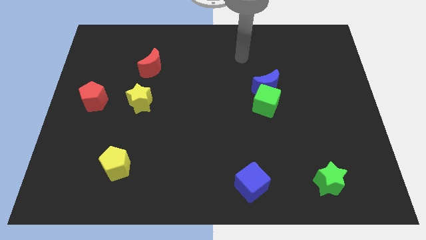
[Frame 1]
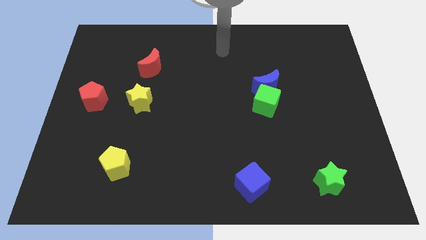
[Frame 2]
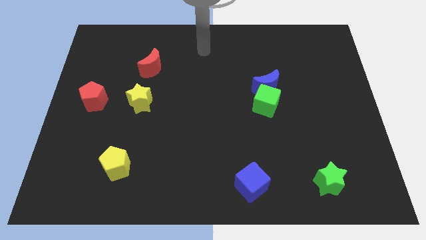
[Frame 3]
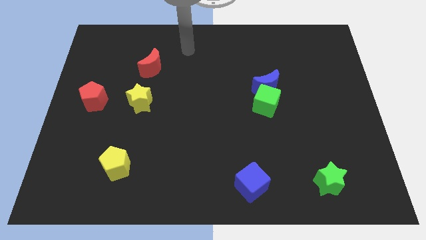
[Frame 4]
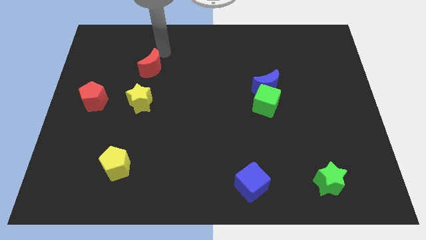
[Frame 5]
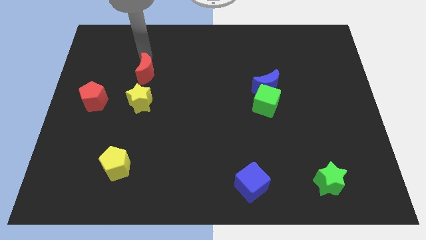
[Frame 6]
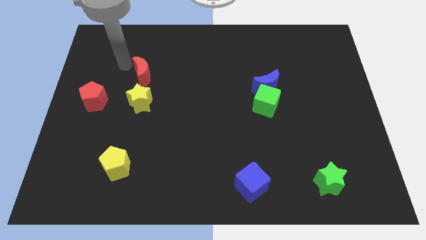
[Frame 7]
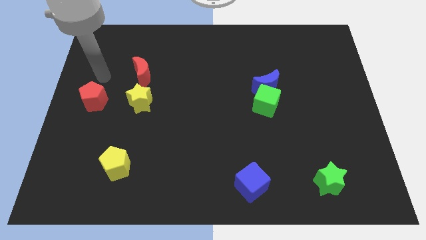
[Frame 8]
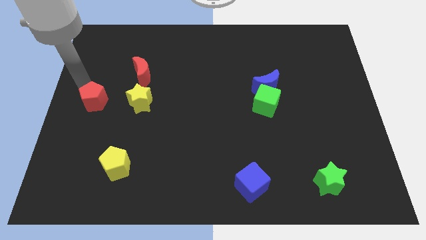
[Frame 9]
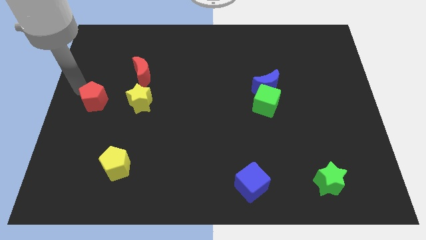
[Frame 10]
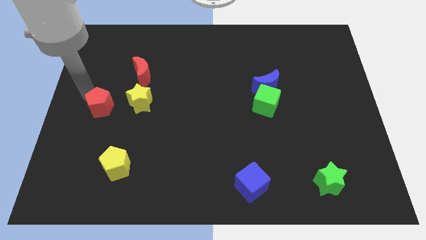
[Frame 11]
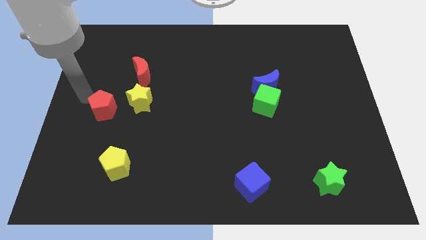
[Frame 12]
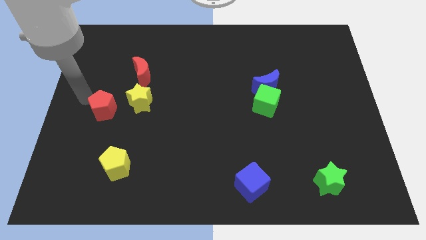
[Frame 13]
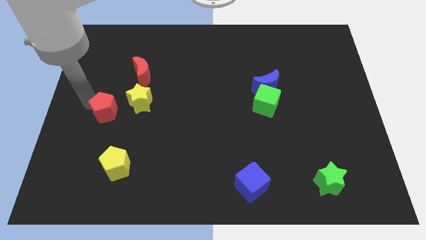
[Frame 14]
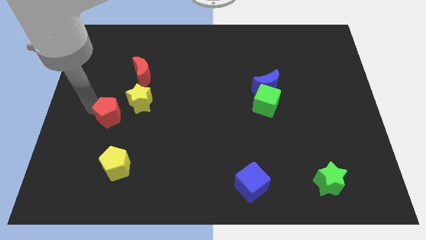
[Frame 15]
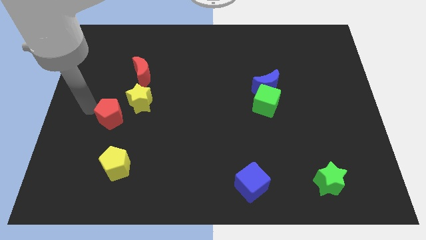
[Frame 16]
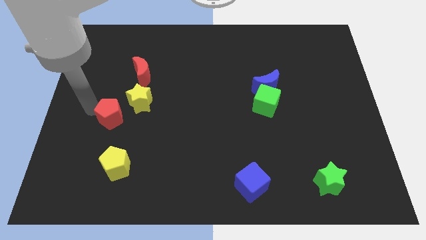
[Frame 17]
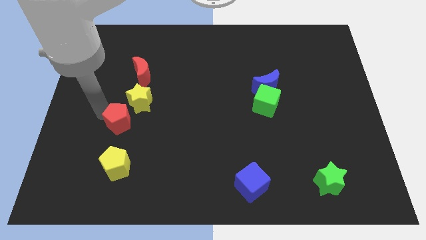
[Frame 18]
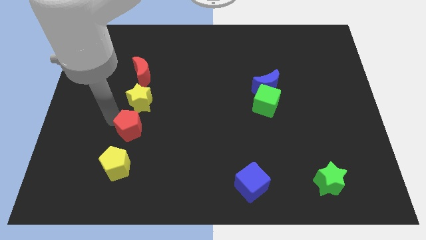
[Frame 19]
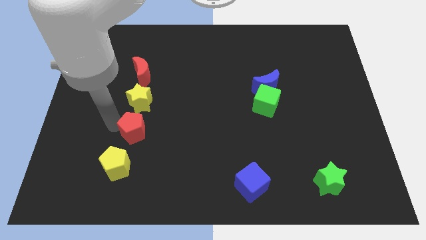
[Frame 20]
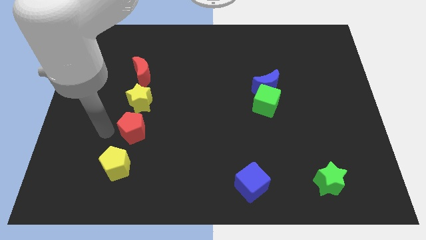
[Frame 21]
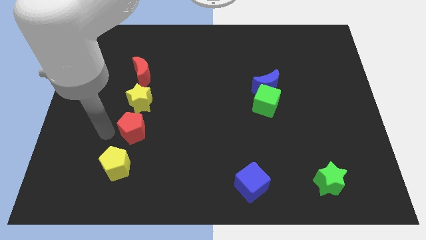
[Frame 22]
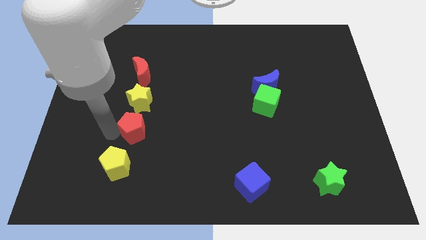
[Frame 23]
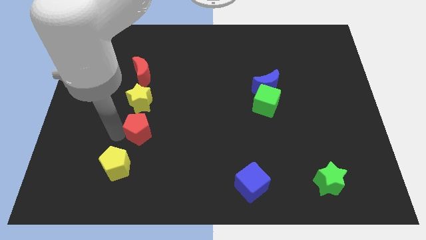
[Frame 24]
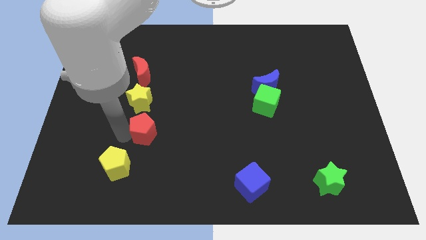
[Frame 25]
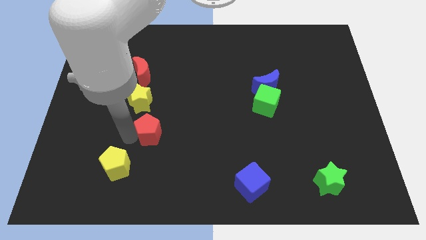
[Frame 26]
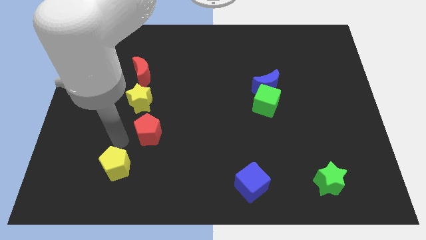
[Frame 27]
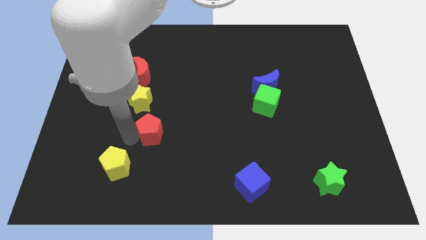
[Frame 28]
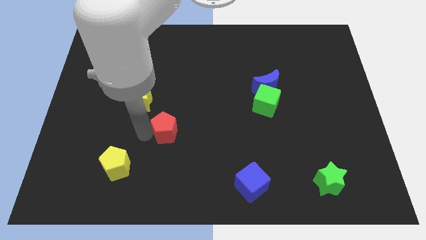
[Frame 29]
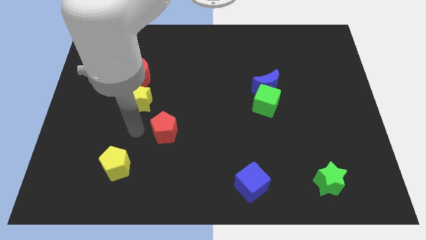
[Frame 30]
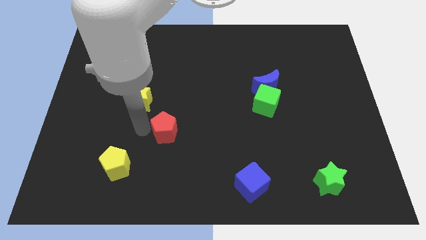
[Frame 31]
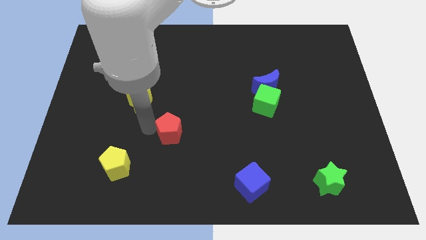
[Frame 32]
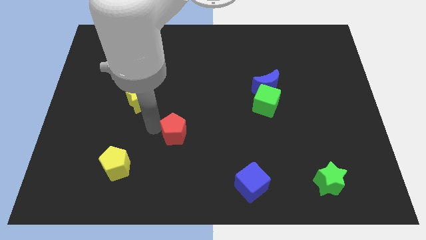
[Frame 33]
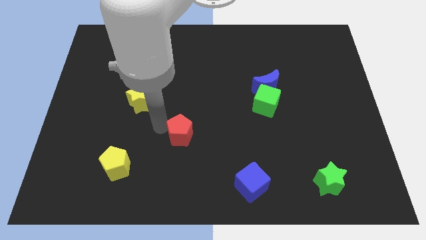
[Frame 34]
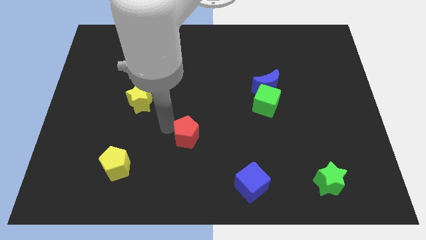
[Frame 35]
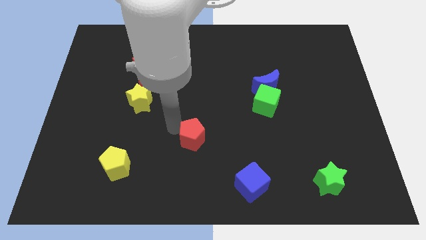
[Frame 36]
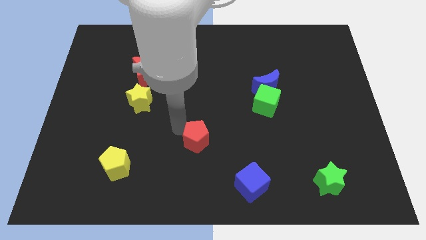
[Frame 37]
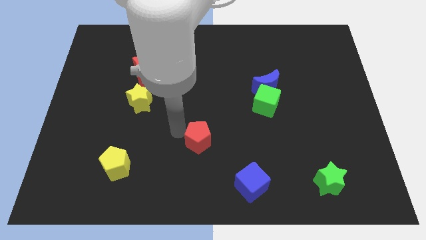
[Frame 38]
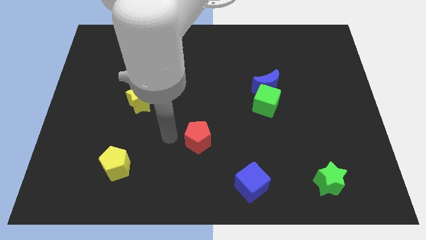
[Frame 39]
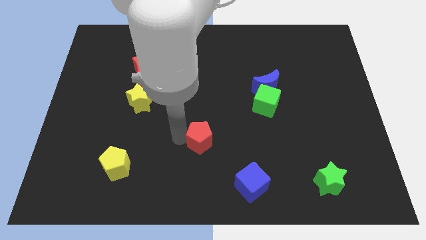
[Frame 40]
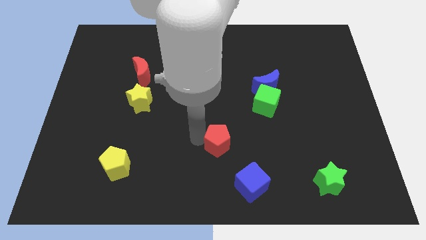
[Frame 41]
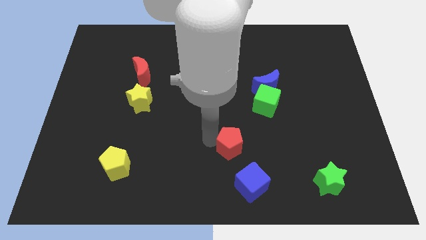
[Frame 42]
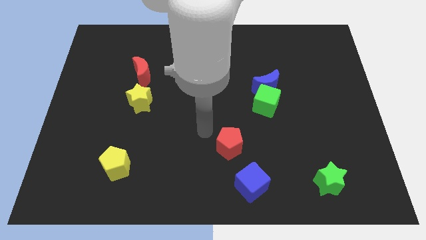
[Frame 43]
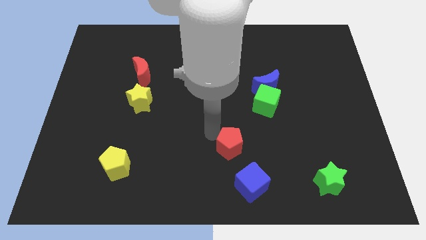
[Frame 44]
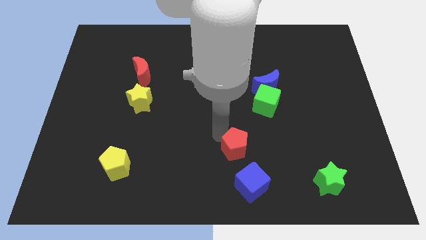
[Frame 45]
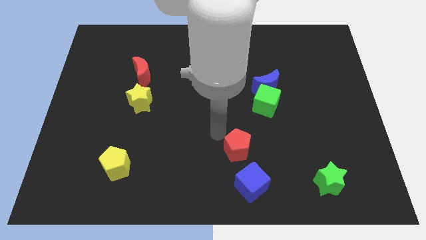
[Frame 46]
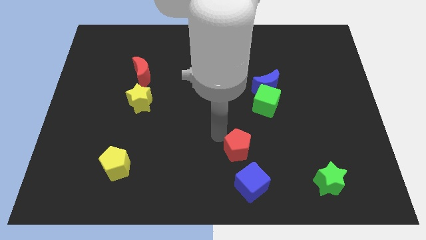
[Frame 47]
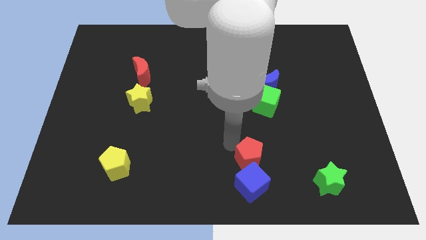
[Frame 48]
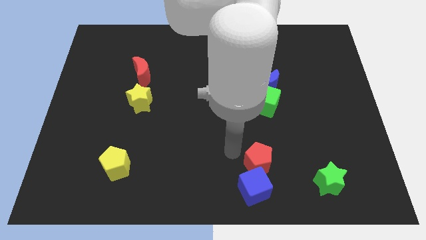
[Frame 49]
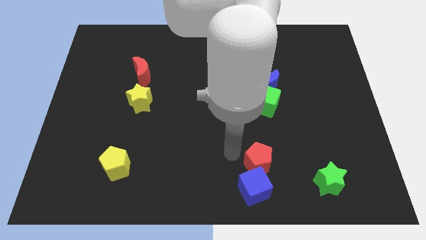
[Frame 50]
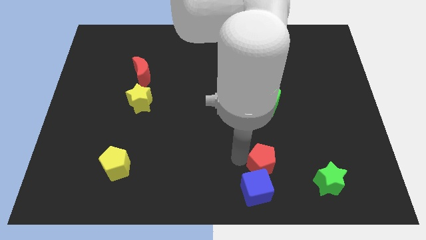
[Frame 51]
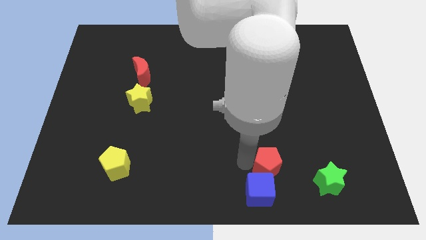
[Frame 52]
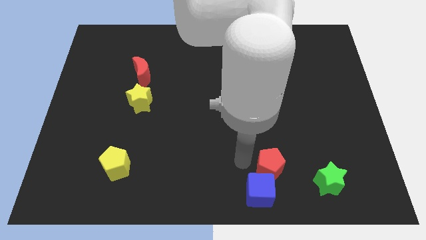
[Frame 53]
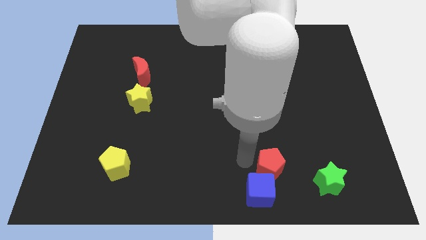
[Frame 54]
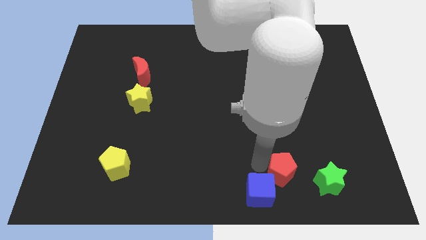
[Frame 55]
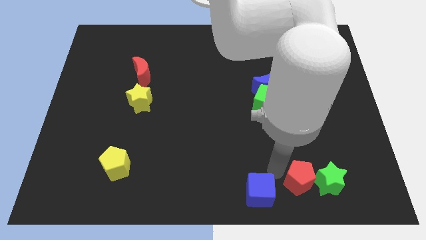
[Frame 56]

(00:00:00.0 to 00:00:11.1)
put the red pentagon close to the green star
